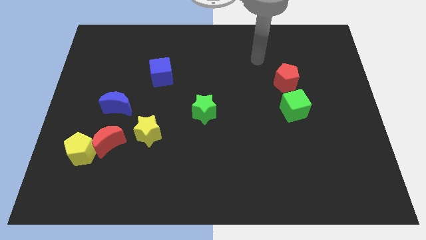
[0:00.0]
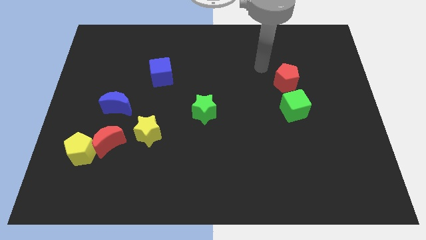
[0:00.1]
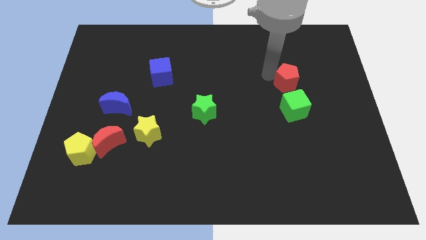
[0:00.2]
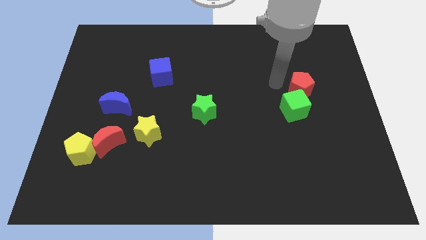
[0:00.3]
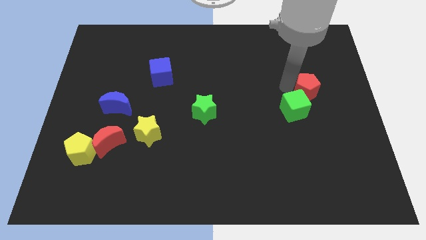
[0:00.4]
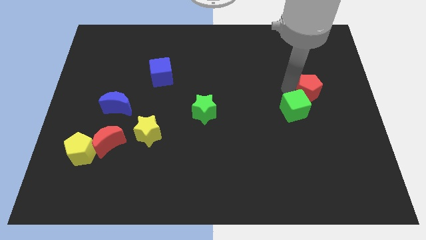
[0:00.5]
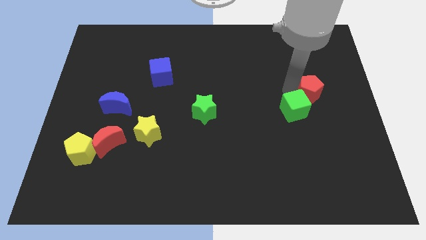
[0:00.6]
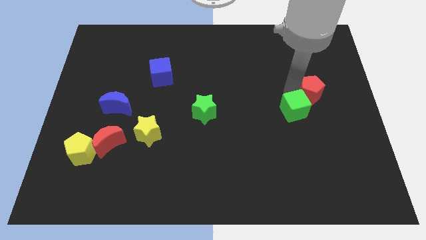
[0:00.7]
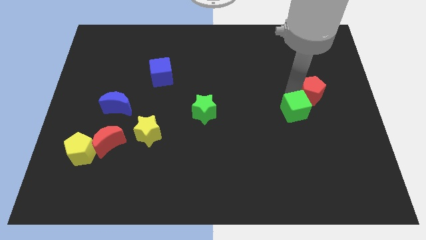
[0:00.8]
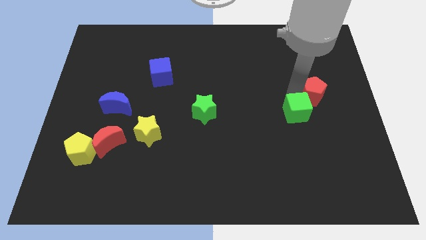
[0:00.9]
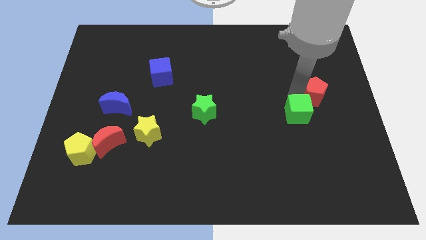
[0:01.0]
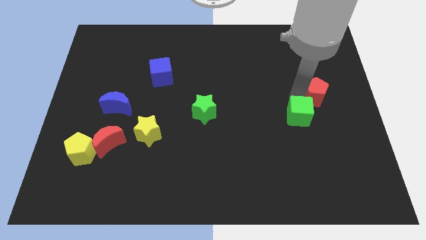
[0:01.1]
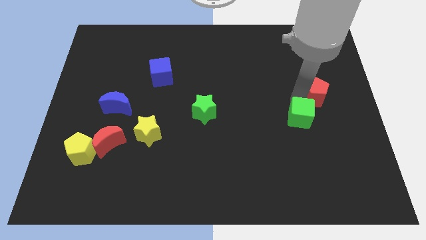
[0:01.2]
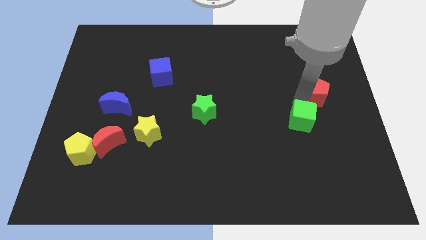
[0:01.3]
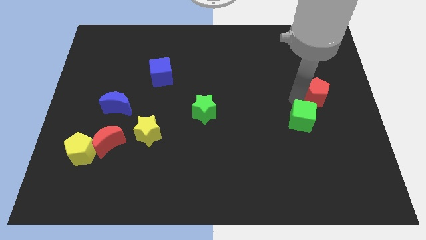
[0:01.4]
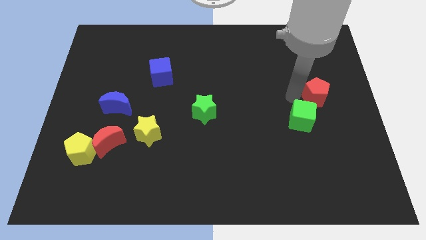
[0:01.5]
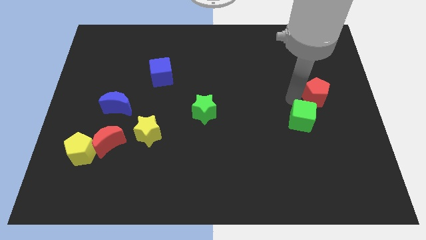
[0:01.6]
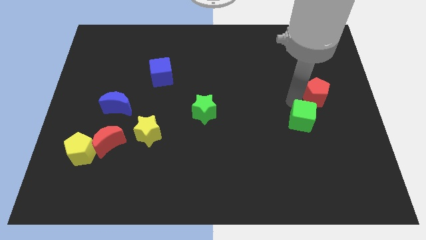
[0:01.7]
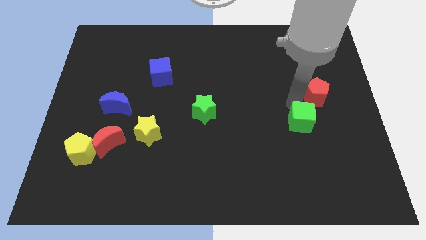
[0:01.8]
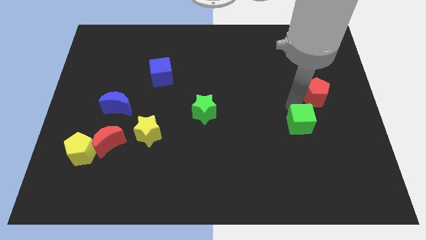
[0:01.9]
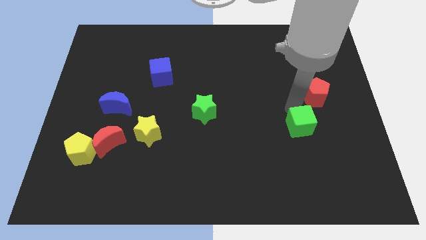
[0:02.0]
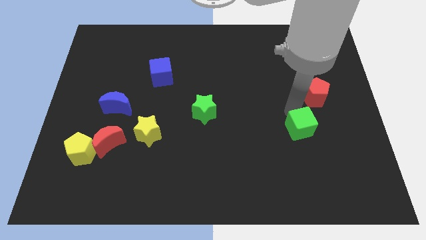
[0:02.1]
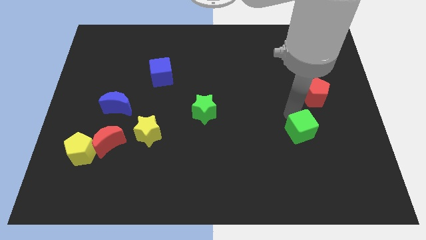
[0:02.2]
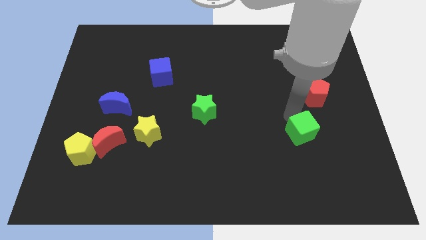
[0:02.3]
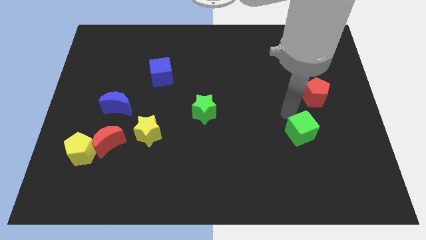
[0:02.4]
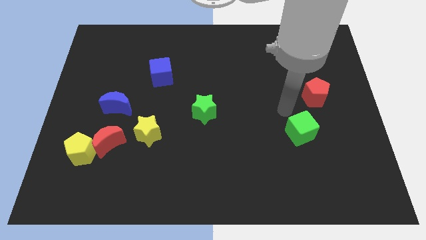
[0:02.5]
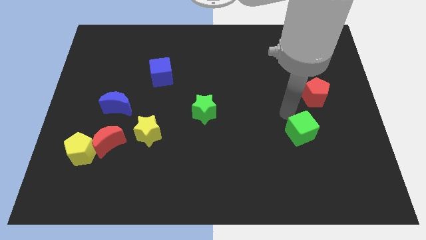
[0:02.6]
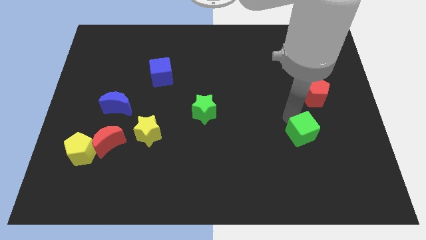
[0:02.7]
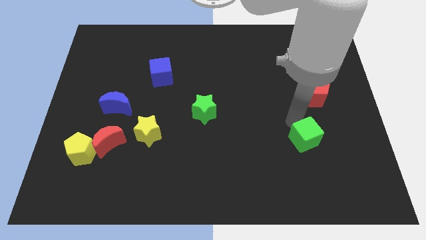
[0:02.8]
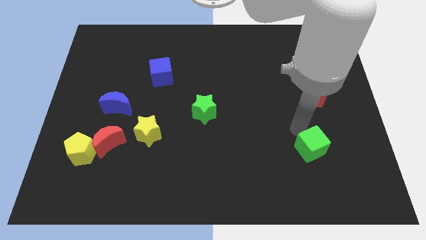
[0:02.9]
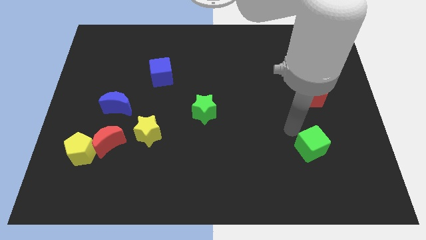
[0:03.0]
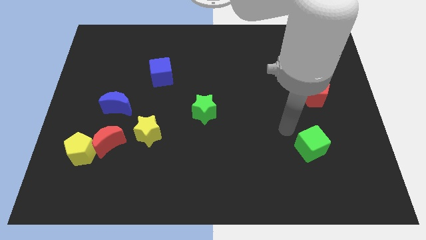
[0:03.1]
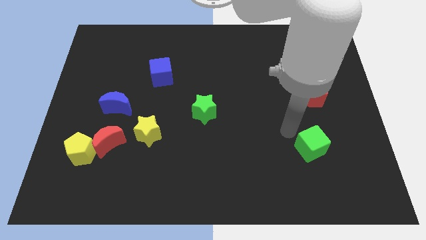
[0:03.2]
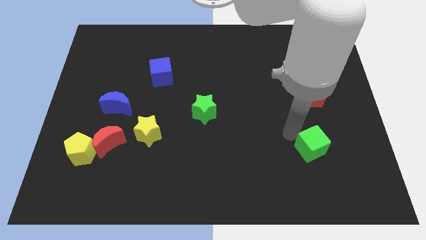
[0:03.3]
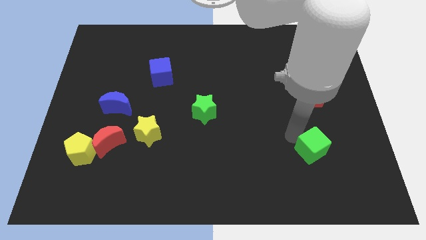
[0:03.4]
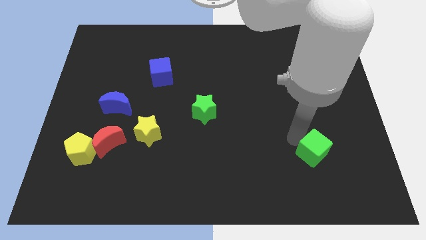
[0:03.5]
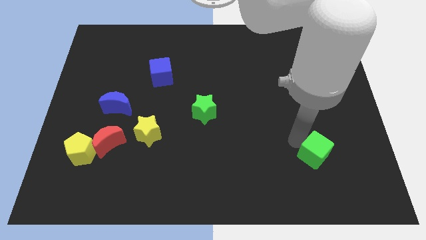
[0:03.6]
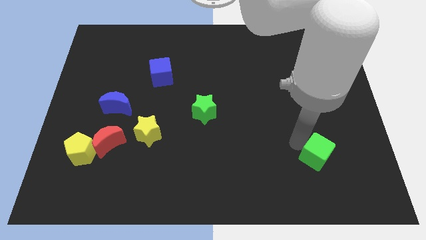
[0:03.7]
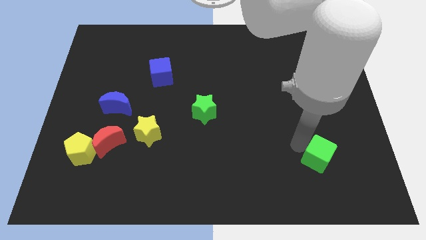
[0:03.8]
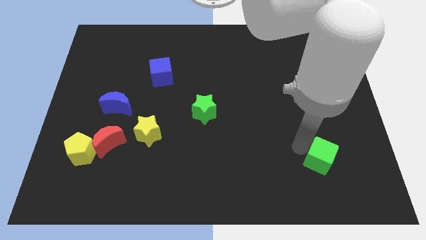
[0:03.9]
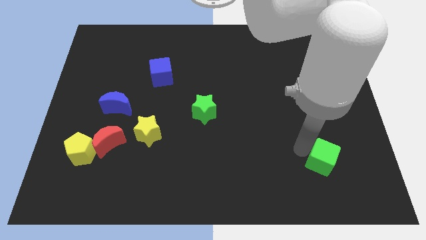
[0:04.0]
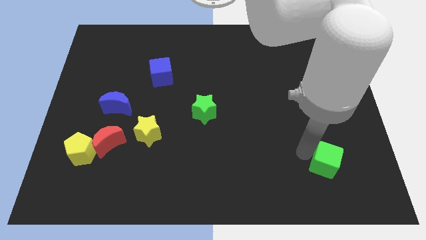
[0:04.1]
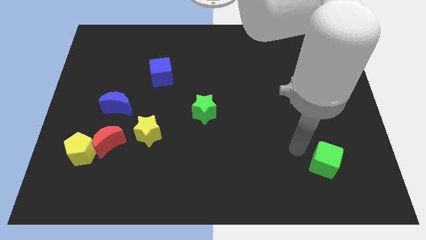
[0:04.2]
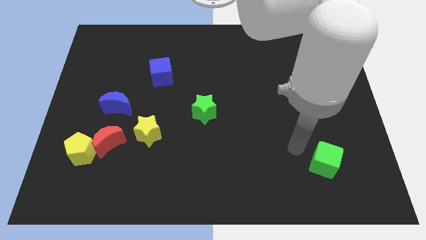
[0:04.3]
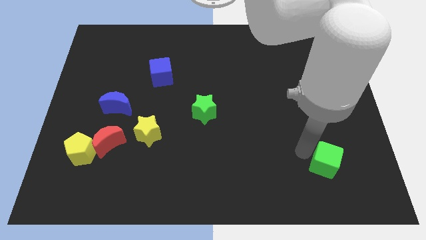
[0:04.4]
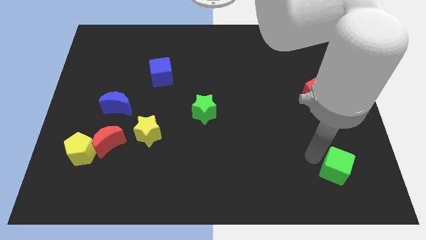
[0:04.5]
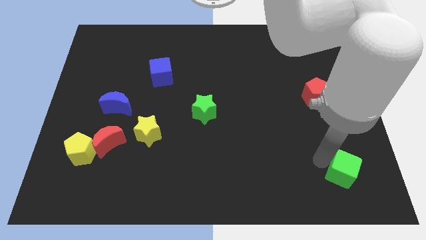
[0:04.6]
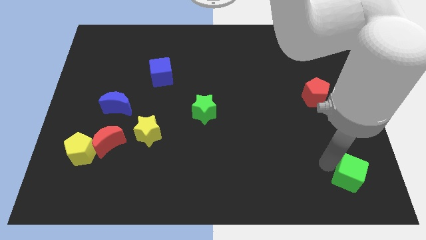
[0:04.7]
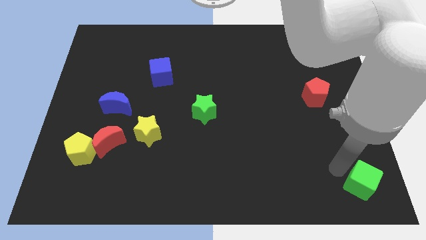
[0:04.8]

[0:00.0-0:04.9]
put the green cube to the bottom right

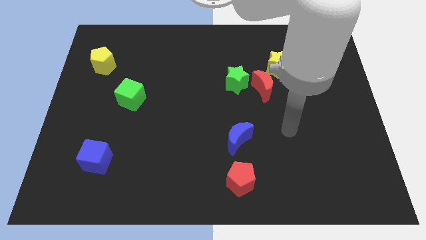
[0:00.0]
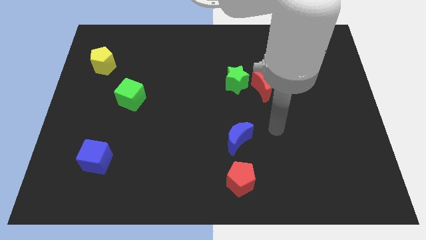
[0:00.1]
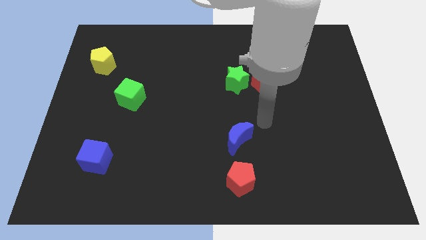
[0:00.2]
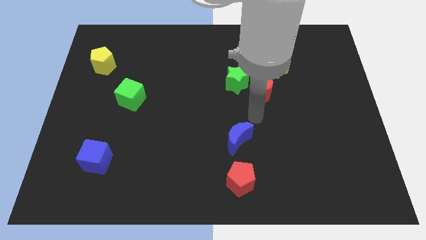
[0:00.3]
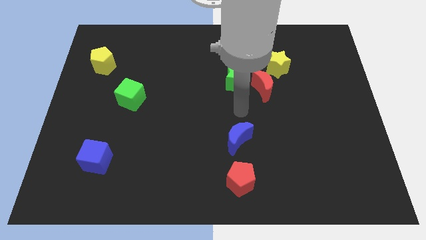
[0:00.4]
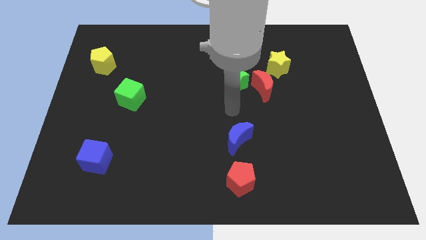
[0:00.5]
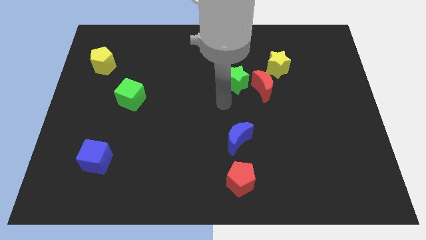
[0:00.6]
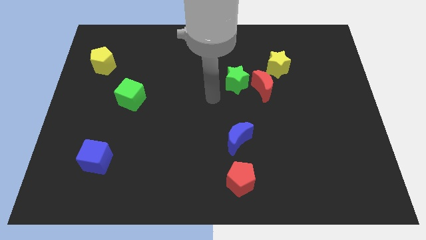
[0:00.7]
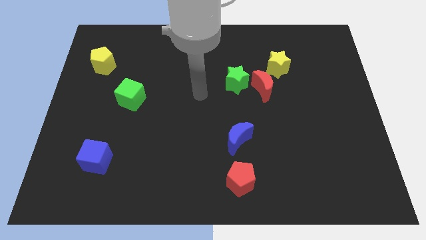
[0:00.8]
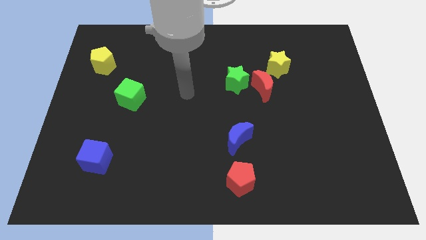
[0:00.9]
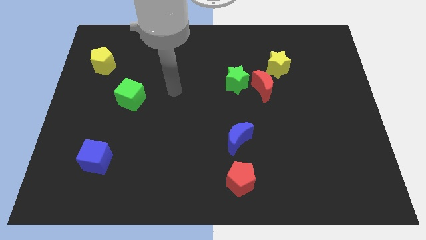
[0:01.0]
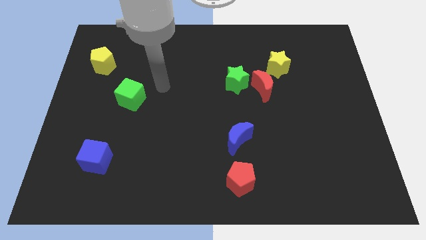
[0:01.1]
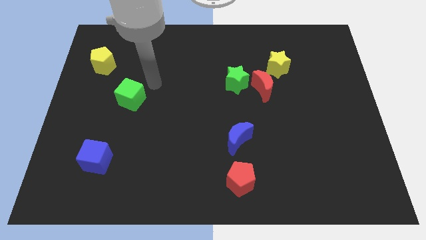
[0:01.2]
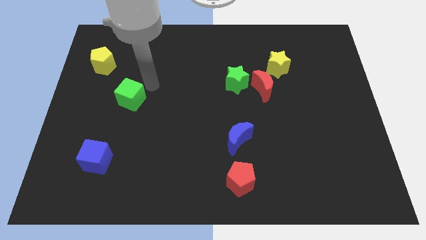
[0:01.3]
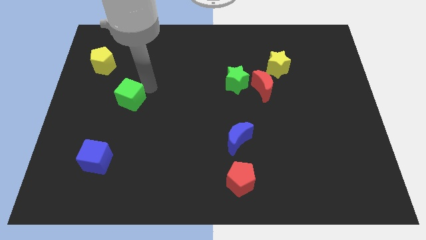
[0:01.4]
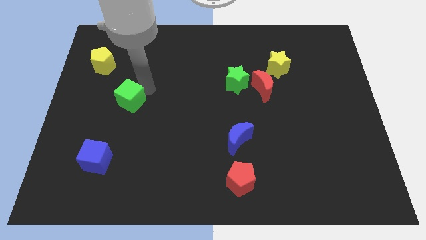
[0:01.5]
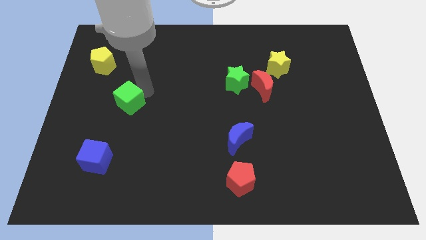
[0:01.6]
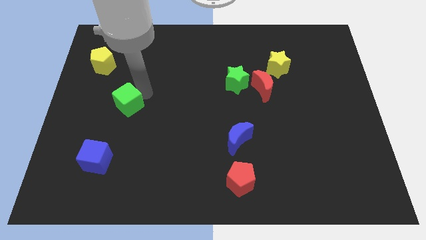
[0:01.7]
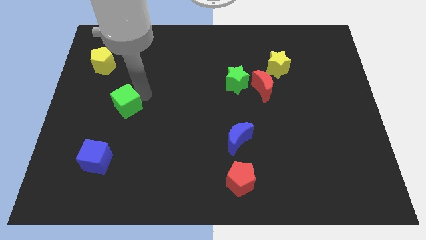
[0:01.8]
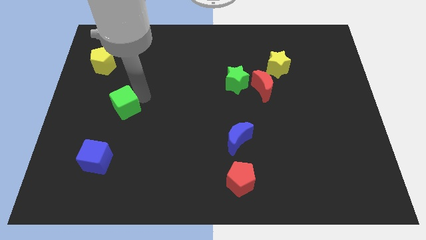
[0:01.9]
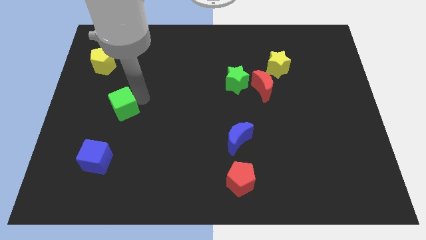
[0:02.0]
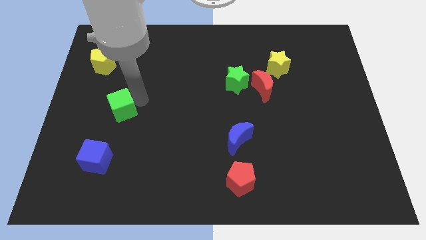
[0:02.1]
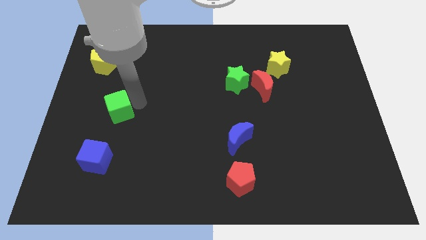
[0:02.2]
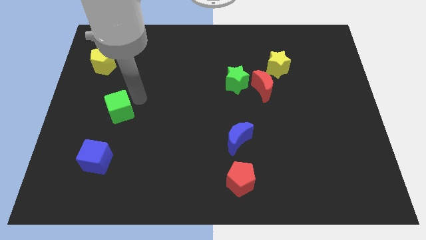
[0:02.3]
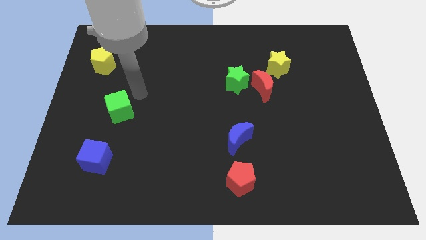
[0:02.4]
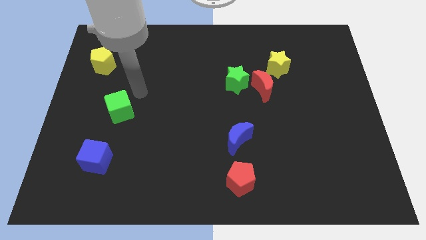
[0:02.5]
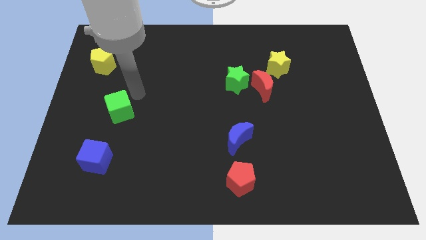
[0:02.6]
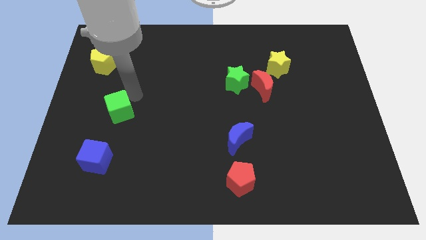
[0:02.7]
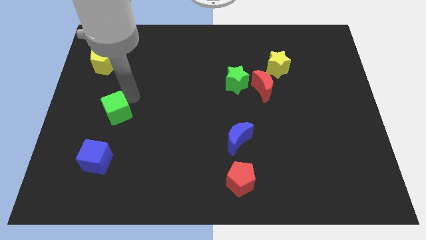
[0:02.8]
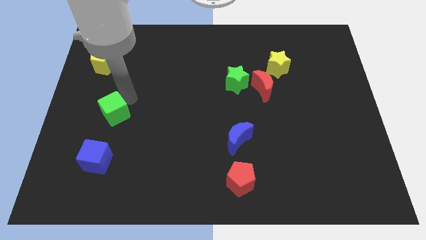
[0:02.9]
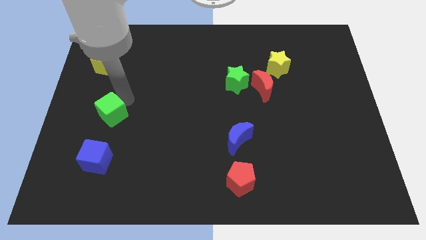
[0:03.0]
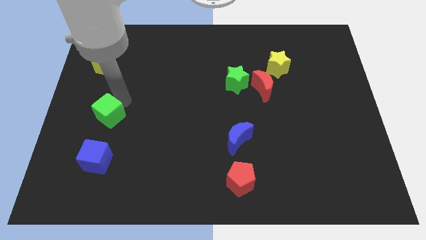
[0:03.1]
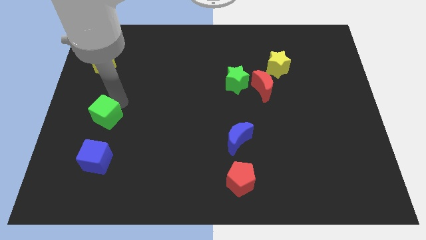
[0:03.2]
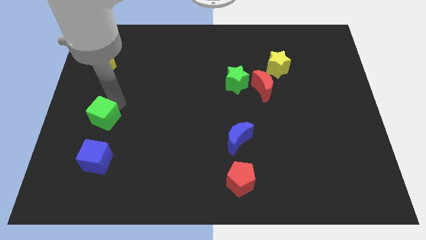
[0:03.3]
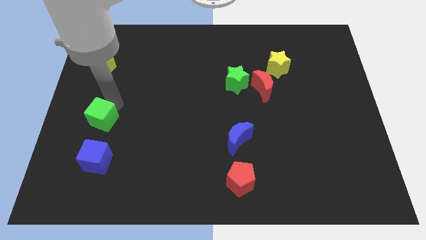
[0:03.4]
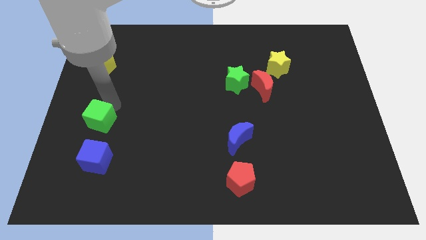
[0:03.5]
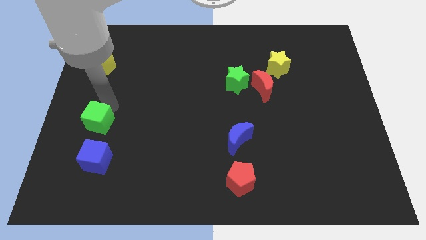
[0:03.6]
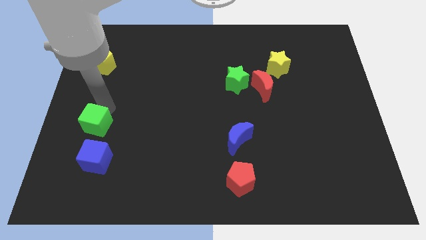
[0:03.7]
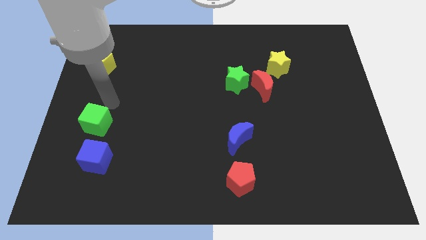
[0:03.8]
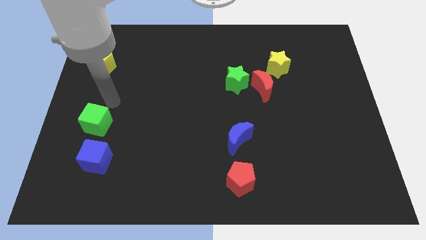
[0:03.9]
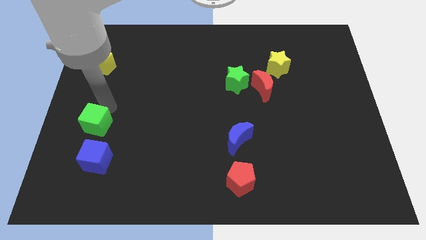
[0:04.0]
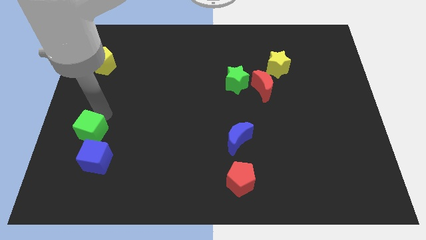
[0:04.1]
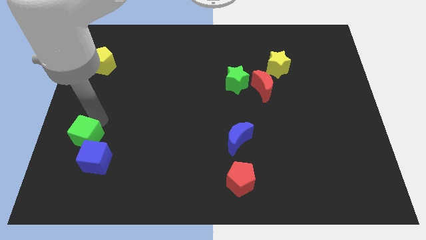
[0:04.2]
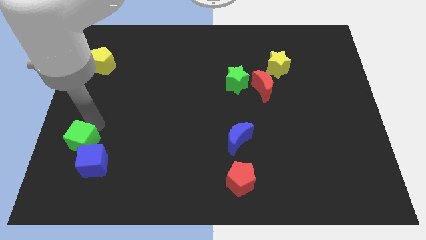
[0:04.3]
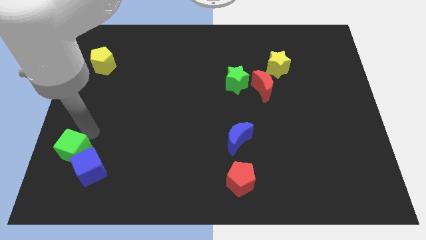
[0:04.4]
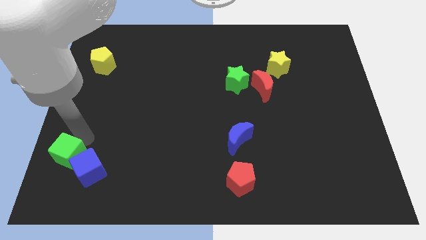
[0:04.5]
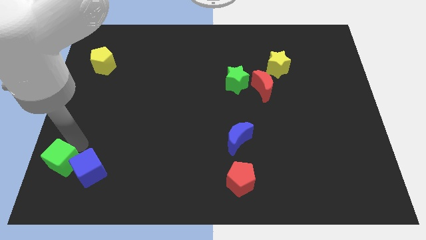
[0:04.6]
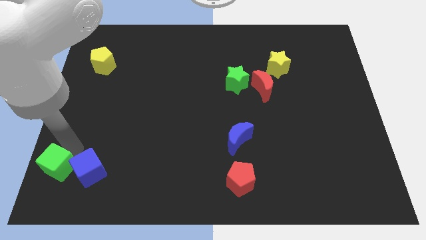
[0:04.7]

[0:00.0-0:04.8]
move the green cube to the bottom left of the board
